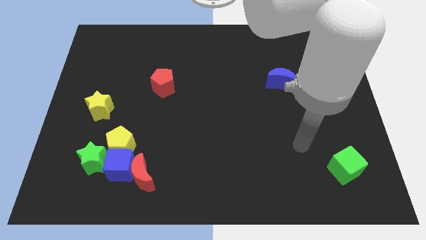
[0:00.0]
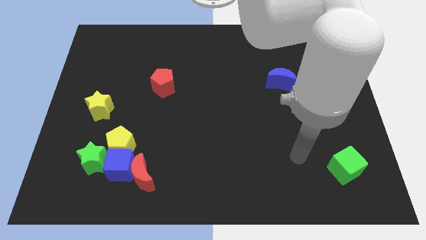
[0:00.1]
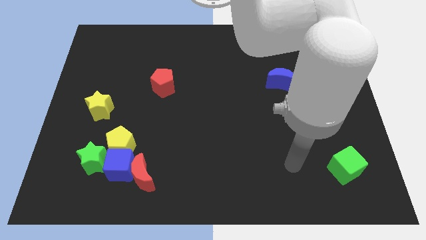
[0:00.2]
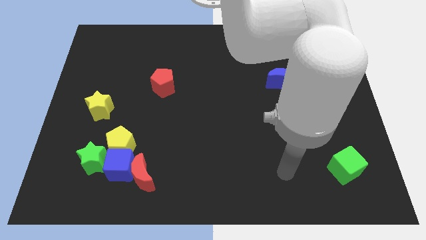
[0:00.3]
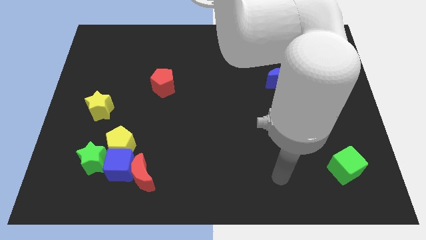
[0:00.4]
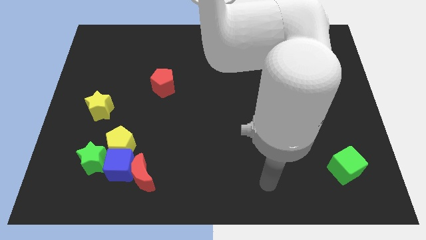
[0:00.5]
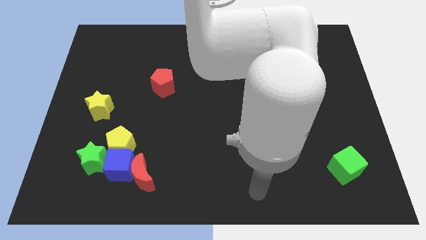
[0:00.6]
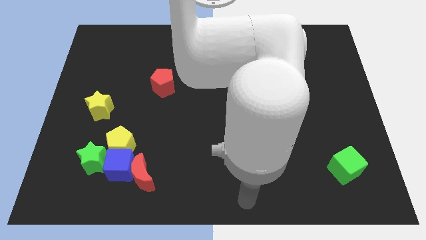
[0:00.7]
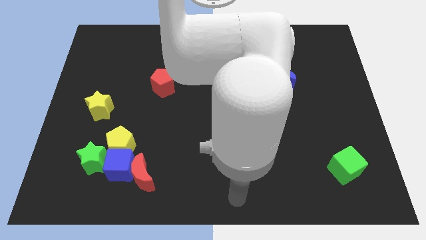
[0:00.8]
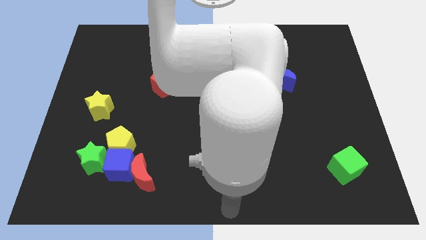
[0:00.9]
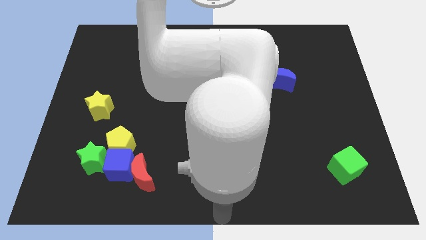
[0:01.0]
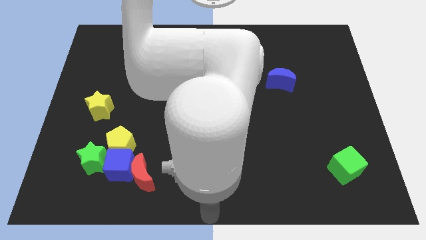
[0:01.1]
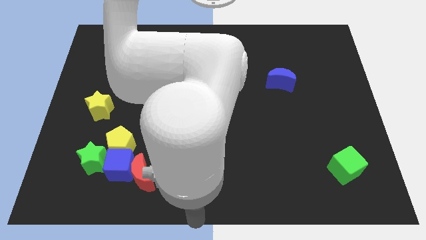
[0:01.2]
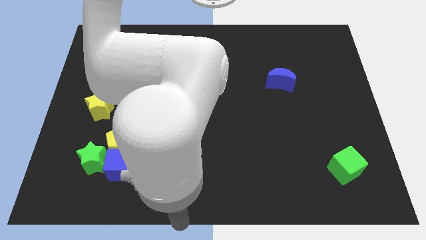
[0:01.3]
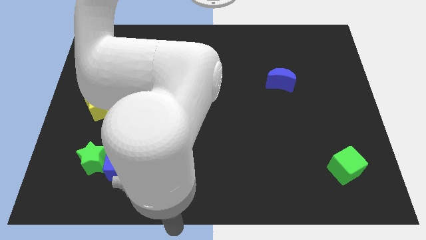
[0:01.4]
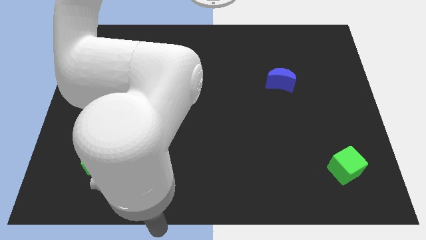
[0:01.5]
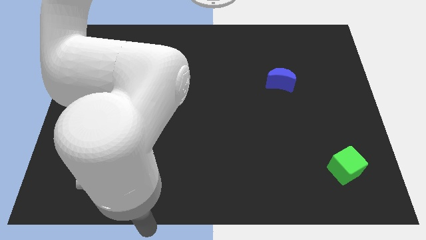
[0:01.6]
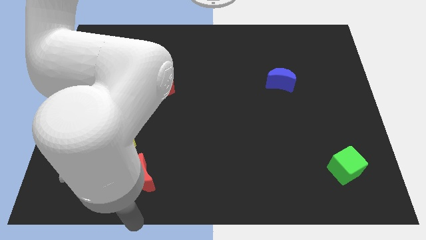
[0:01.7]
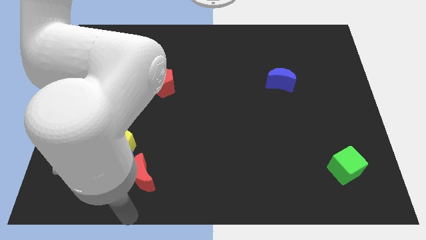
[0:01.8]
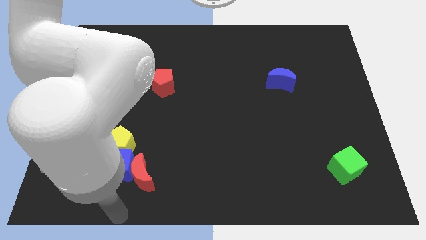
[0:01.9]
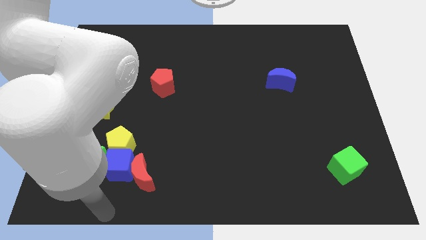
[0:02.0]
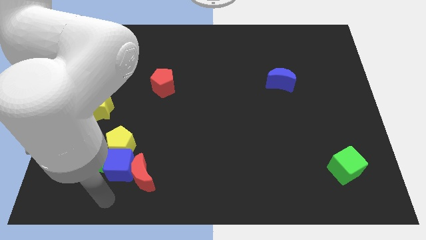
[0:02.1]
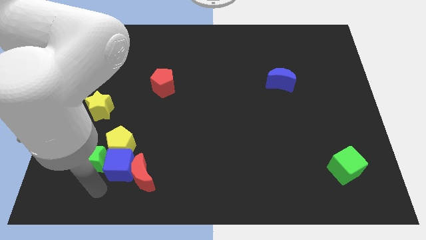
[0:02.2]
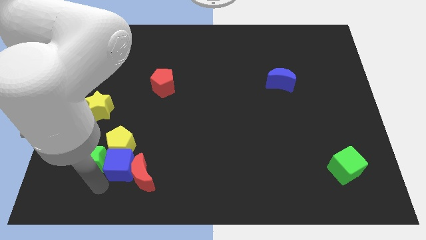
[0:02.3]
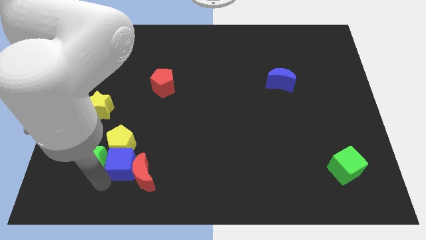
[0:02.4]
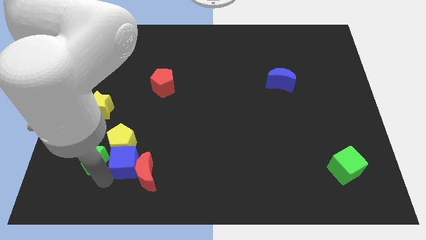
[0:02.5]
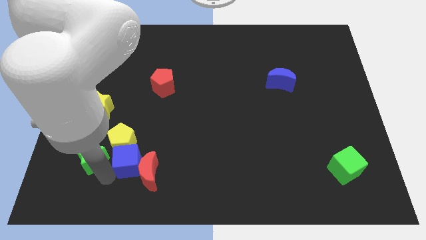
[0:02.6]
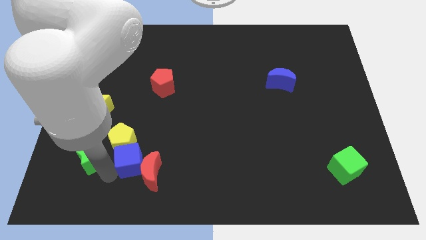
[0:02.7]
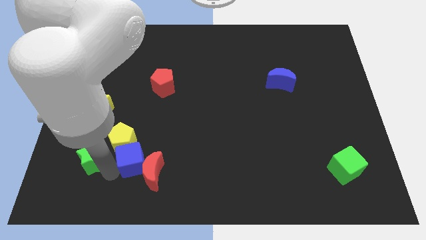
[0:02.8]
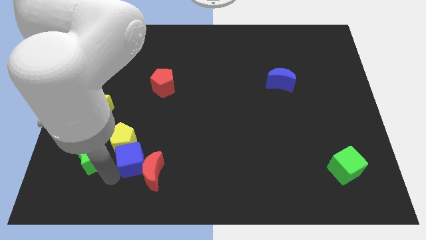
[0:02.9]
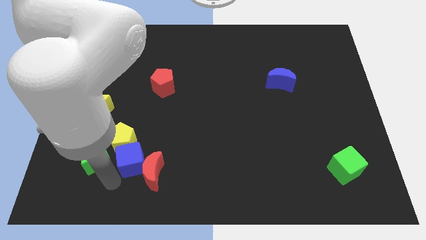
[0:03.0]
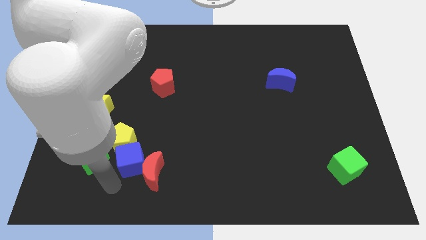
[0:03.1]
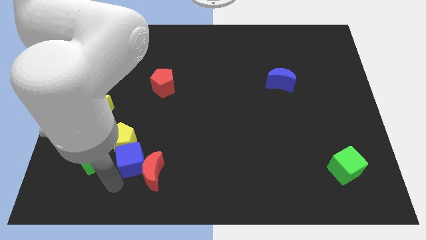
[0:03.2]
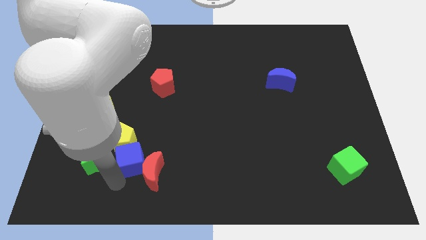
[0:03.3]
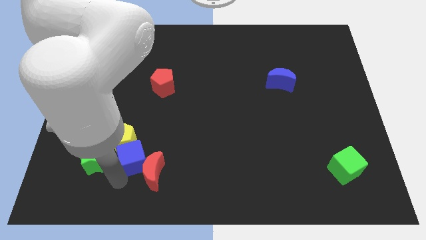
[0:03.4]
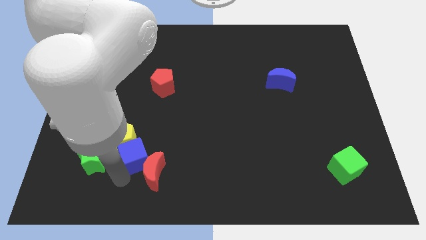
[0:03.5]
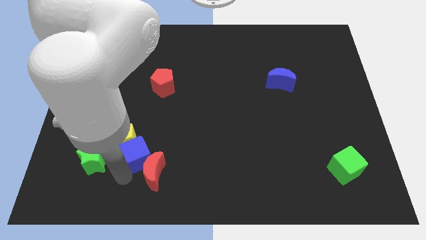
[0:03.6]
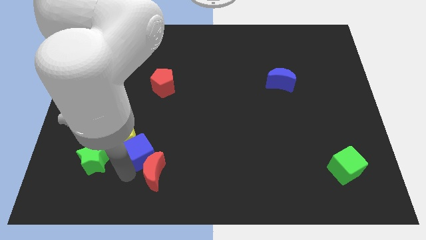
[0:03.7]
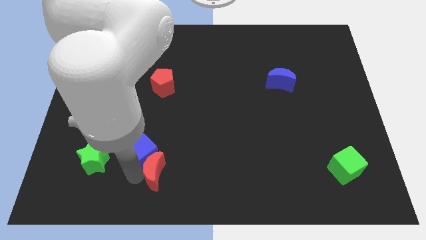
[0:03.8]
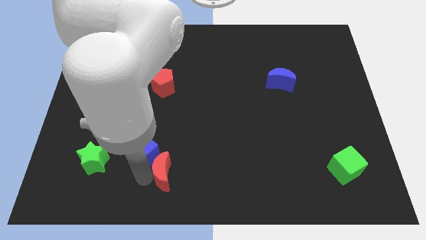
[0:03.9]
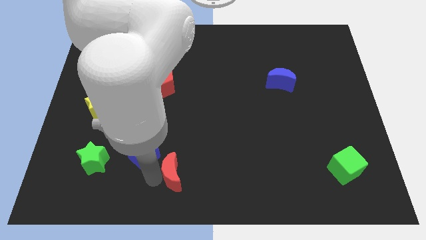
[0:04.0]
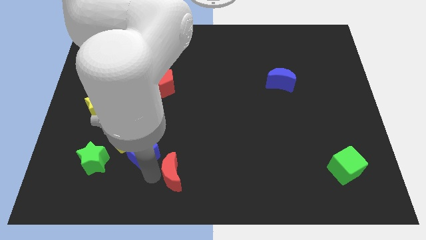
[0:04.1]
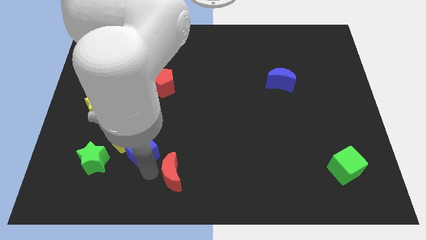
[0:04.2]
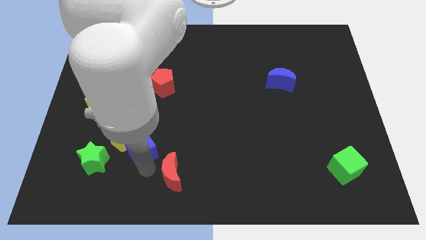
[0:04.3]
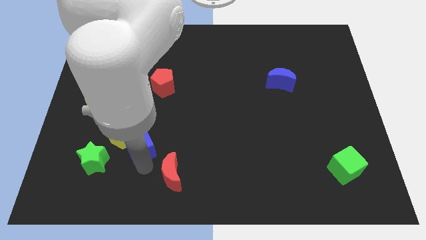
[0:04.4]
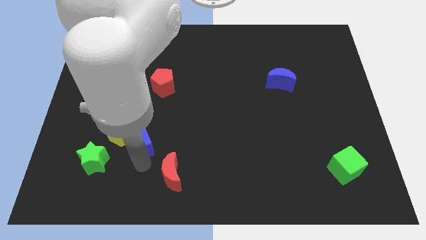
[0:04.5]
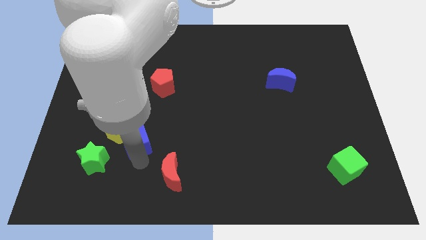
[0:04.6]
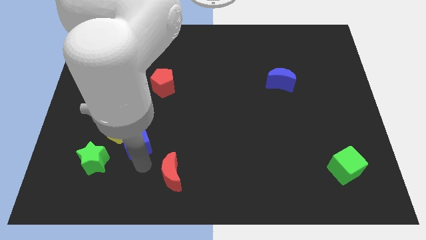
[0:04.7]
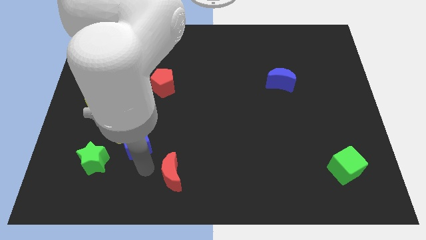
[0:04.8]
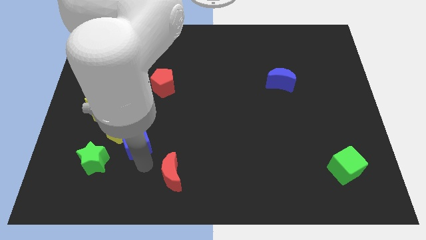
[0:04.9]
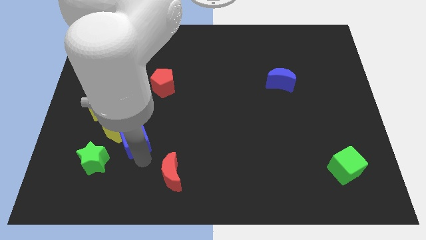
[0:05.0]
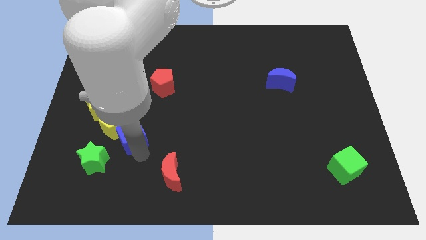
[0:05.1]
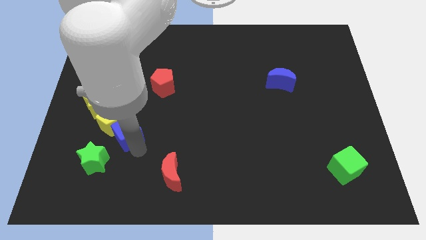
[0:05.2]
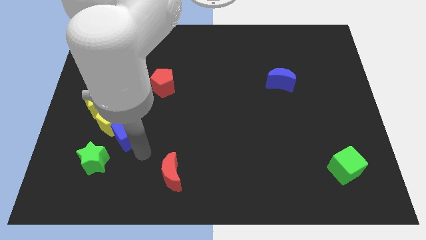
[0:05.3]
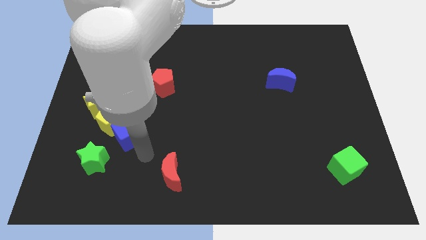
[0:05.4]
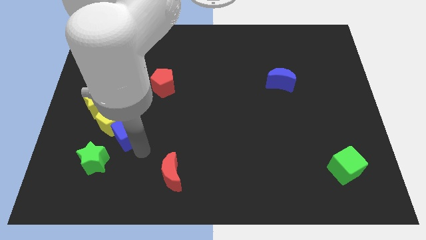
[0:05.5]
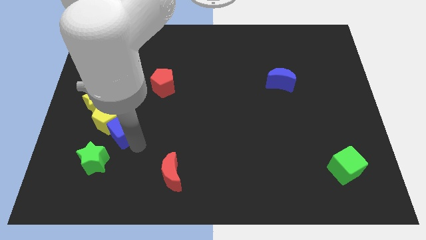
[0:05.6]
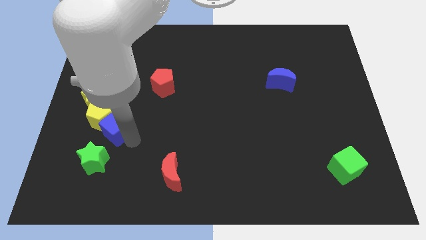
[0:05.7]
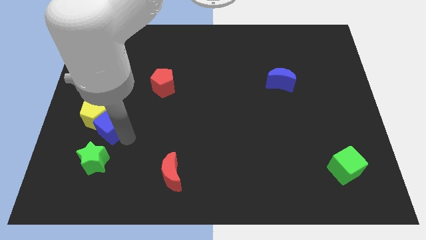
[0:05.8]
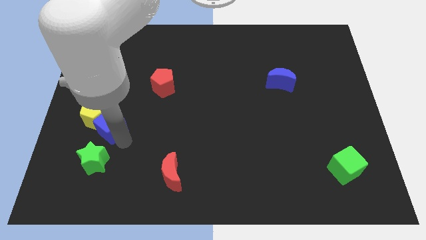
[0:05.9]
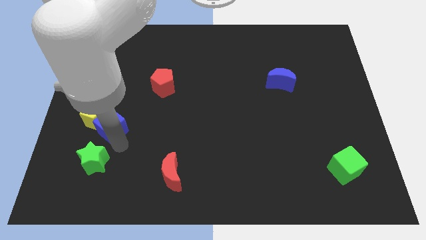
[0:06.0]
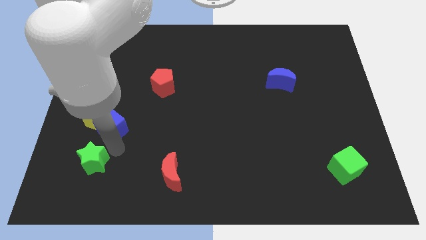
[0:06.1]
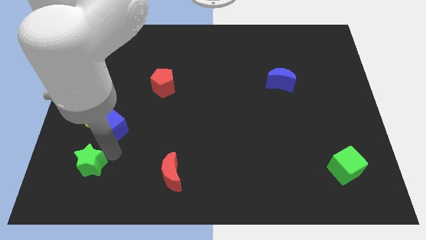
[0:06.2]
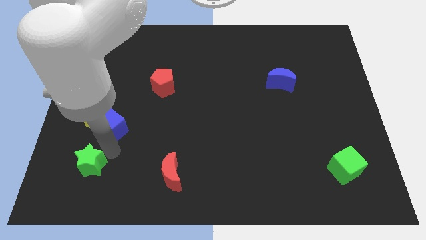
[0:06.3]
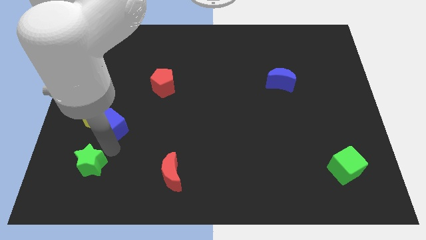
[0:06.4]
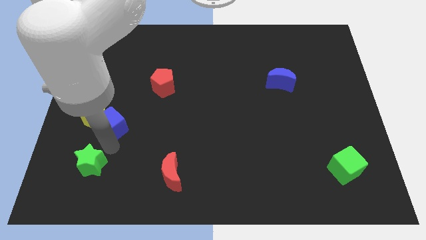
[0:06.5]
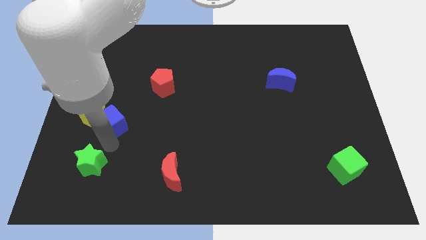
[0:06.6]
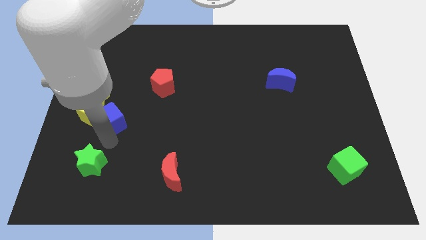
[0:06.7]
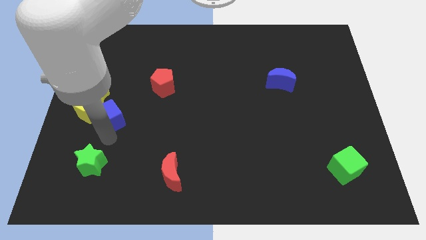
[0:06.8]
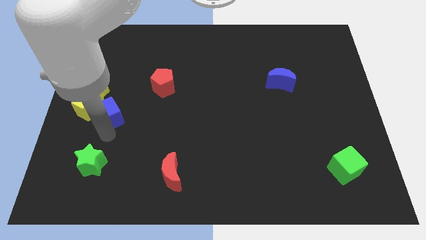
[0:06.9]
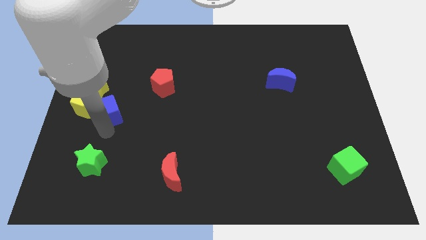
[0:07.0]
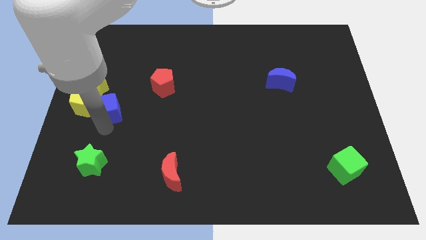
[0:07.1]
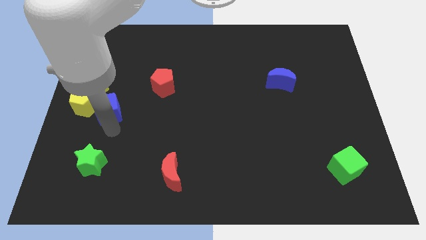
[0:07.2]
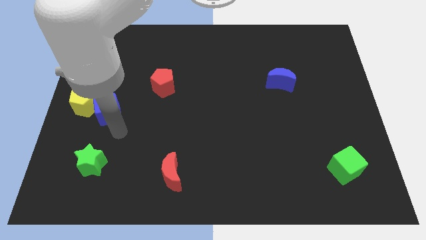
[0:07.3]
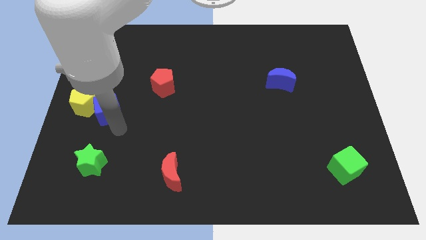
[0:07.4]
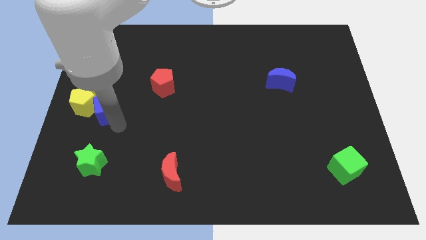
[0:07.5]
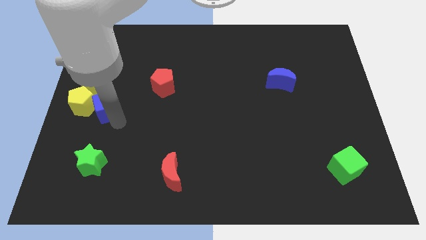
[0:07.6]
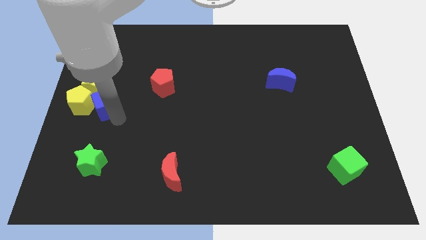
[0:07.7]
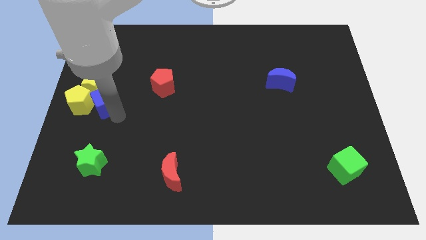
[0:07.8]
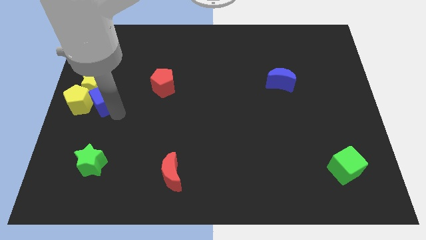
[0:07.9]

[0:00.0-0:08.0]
move the blue cube close to the yellow star
